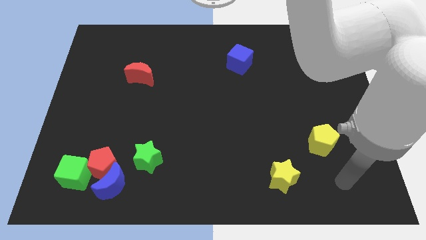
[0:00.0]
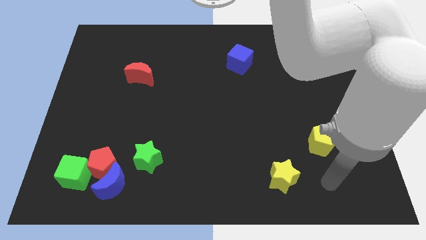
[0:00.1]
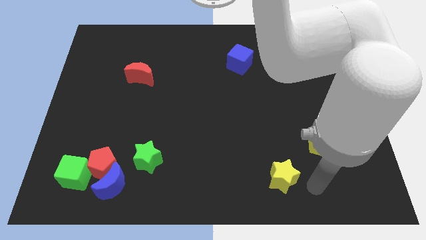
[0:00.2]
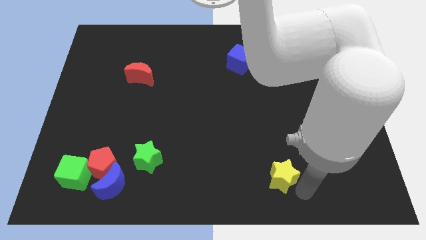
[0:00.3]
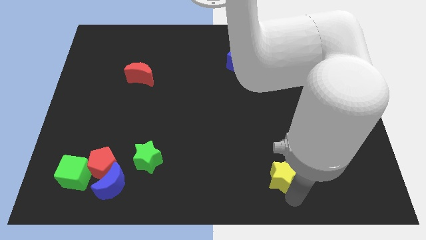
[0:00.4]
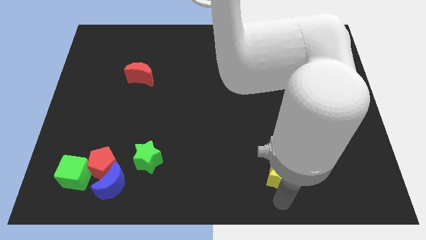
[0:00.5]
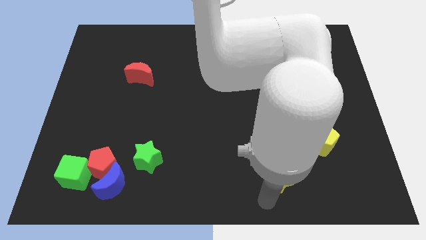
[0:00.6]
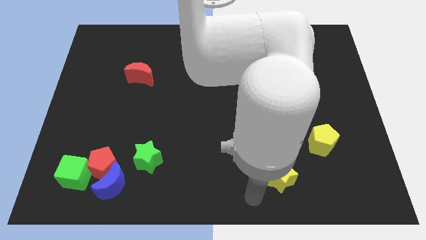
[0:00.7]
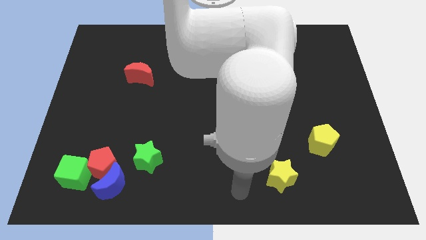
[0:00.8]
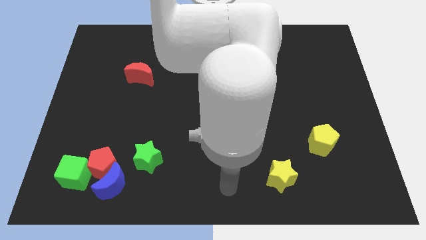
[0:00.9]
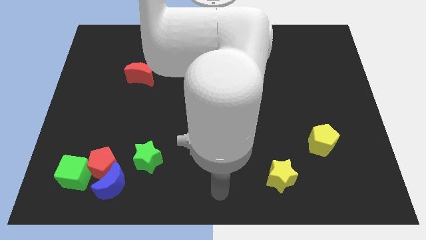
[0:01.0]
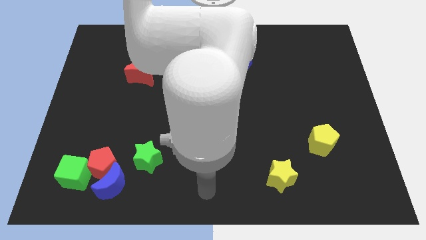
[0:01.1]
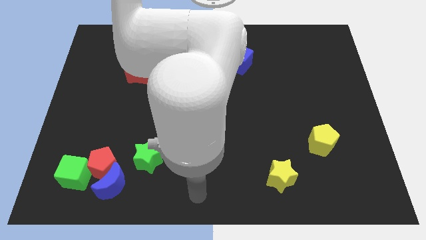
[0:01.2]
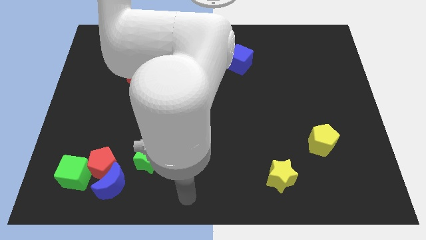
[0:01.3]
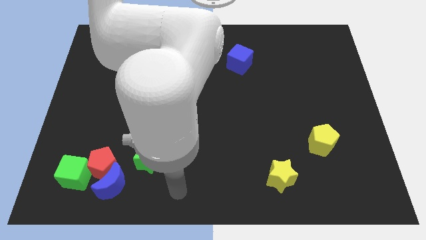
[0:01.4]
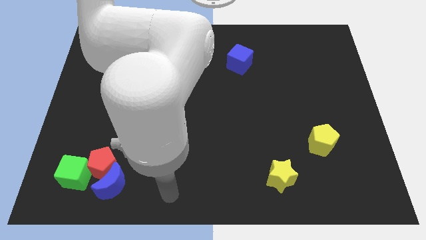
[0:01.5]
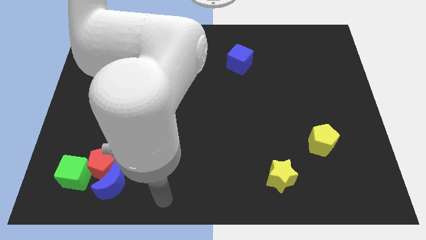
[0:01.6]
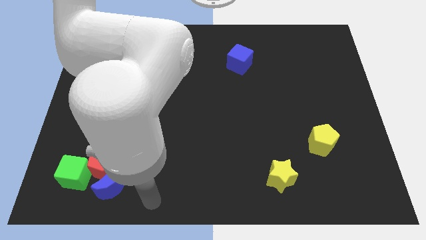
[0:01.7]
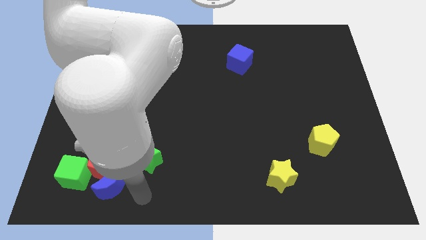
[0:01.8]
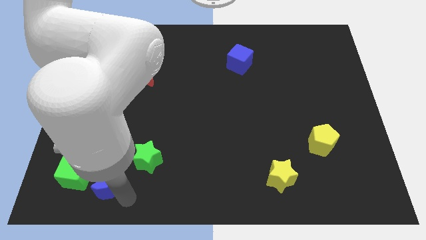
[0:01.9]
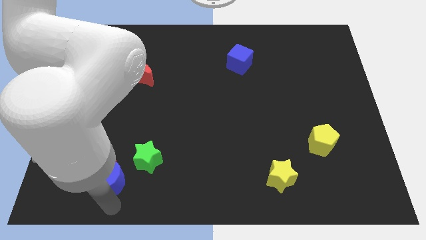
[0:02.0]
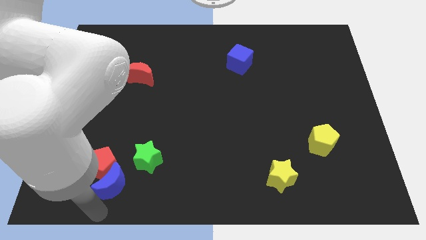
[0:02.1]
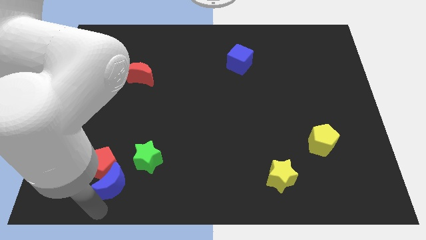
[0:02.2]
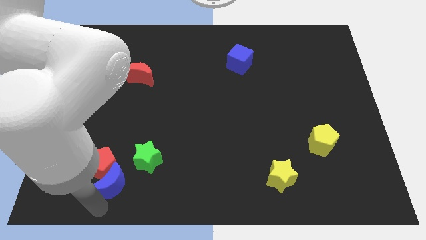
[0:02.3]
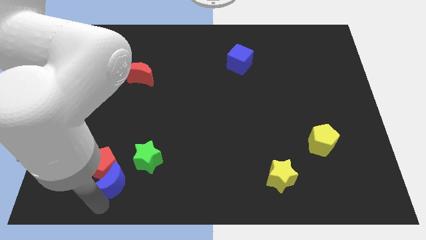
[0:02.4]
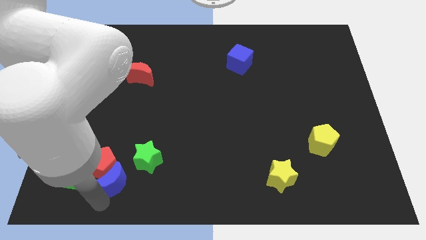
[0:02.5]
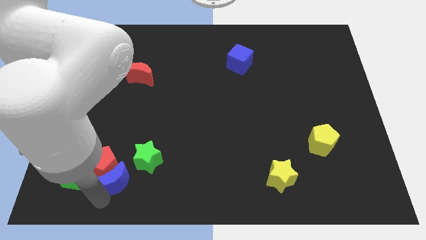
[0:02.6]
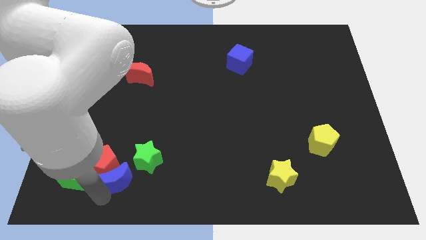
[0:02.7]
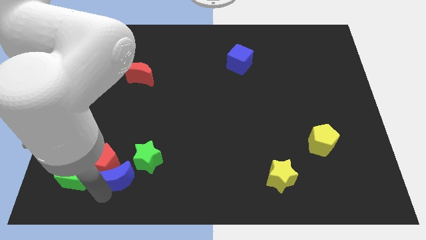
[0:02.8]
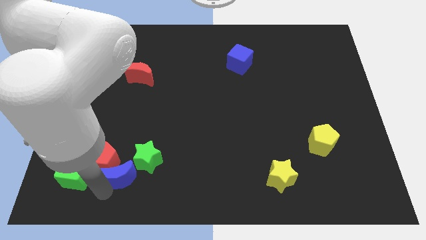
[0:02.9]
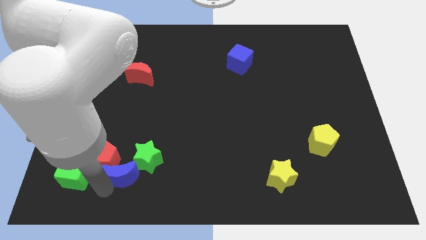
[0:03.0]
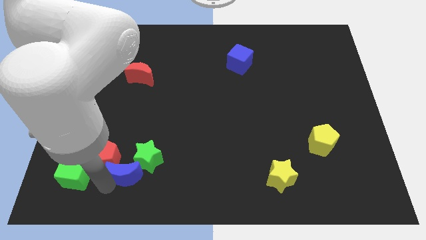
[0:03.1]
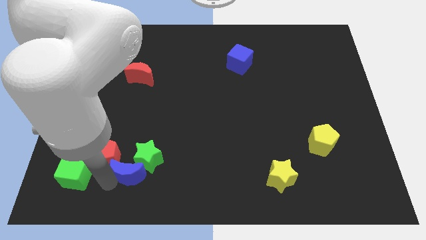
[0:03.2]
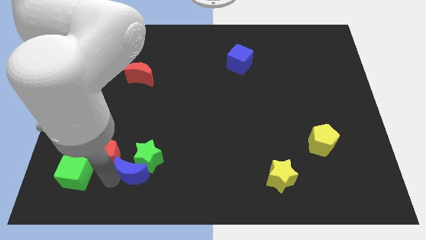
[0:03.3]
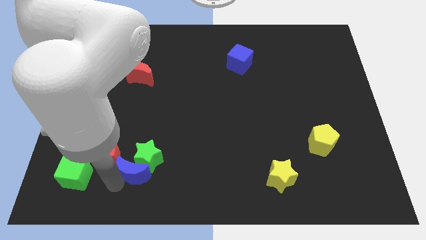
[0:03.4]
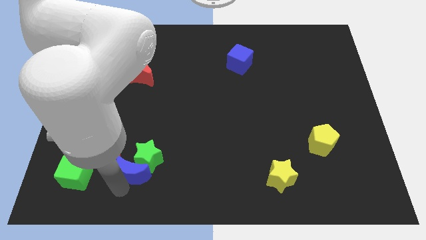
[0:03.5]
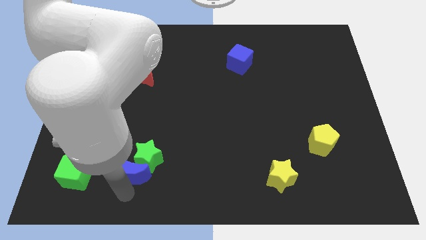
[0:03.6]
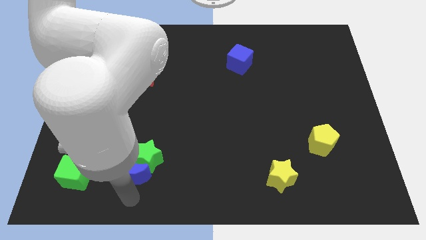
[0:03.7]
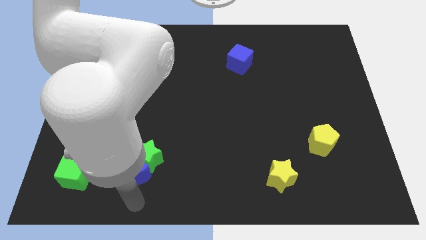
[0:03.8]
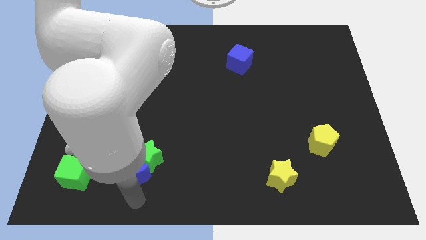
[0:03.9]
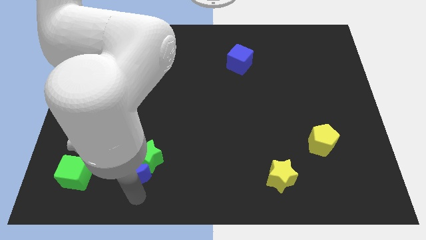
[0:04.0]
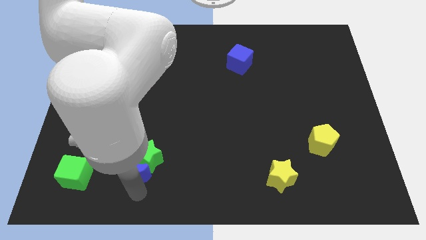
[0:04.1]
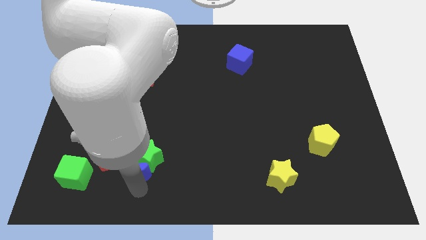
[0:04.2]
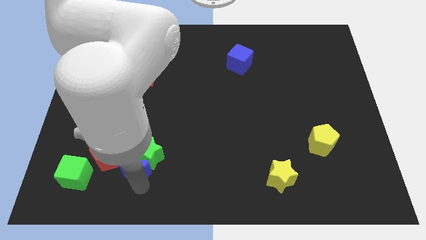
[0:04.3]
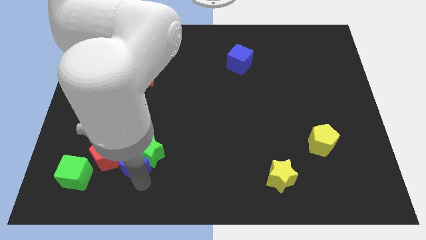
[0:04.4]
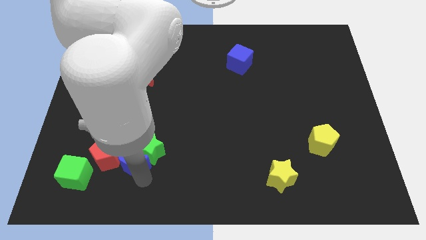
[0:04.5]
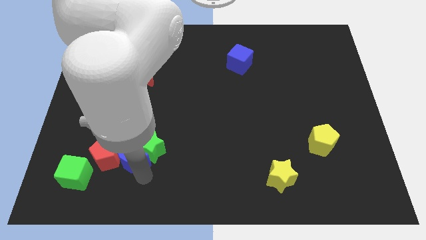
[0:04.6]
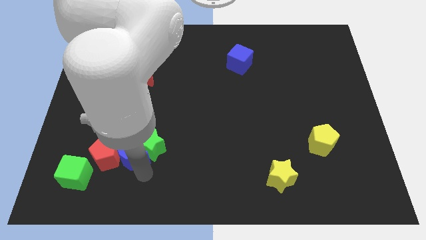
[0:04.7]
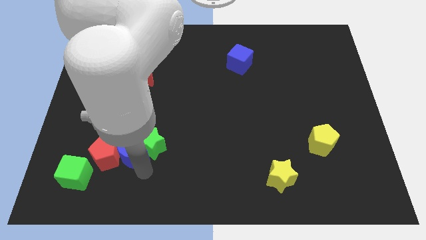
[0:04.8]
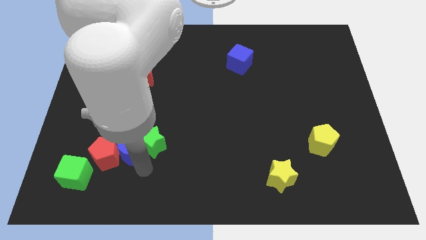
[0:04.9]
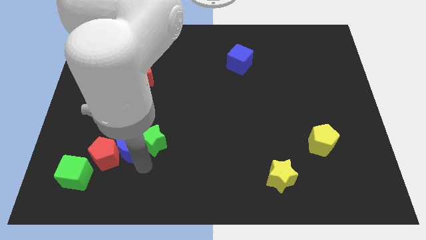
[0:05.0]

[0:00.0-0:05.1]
push the blue moon diagonally up and right a bit

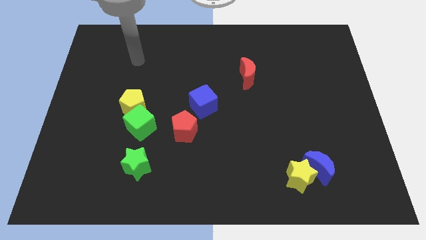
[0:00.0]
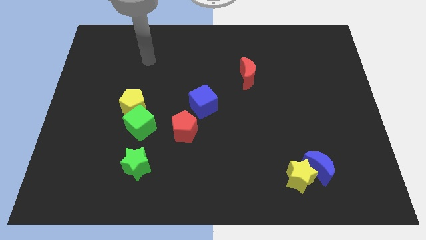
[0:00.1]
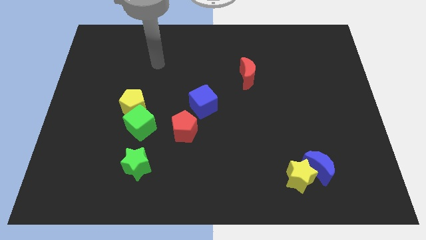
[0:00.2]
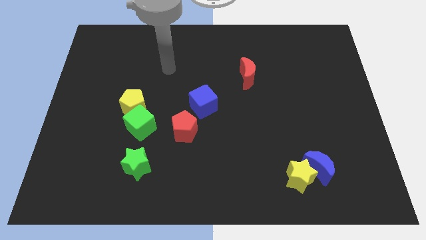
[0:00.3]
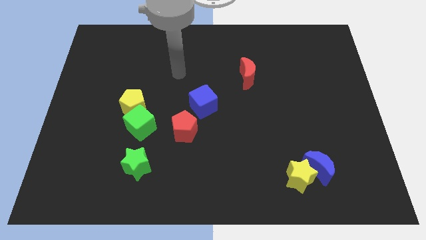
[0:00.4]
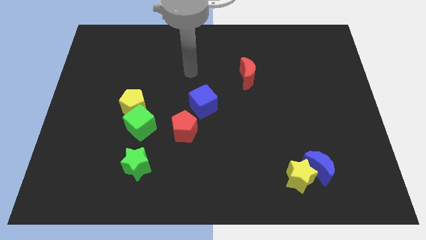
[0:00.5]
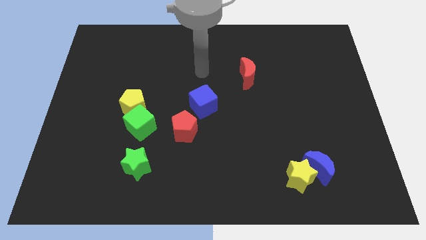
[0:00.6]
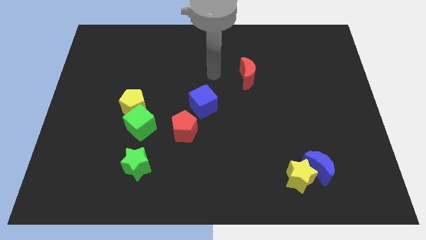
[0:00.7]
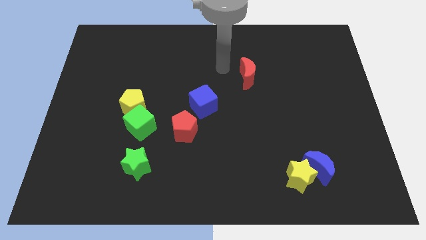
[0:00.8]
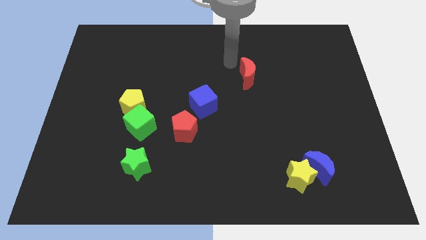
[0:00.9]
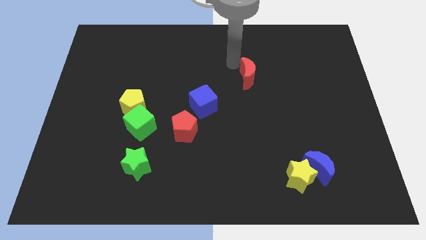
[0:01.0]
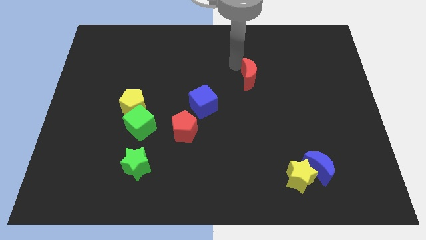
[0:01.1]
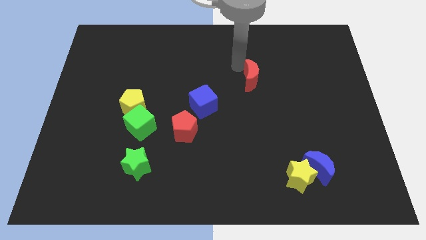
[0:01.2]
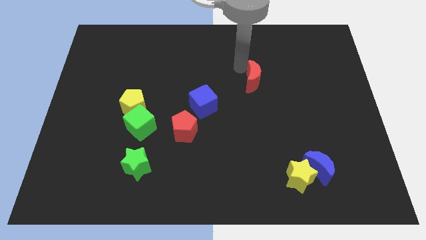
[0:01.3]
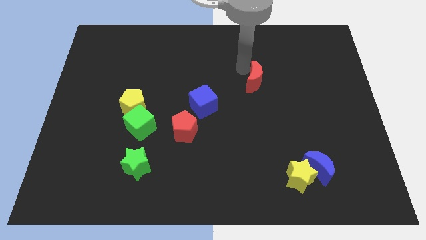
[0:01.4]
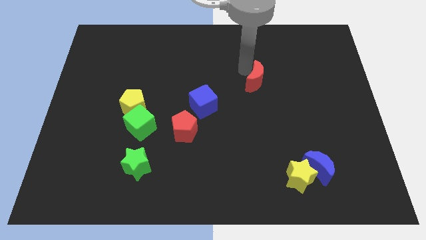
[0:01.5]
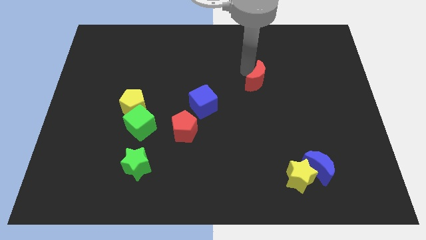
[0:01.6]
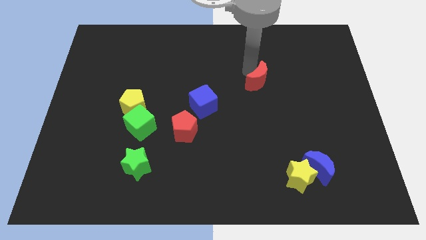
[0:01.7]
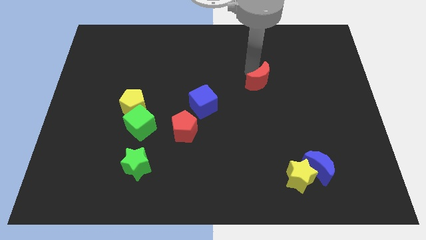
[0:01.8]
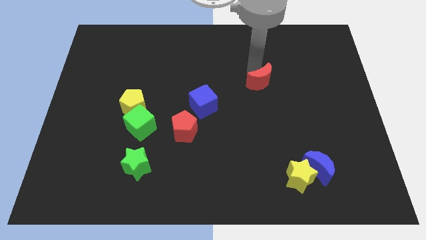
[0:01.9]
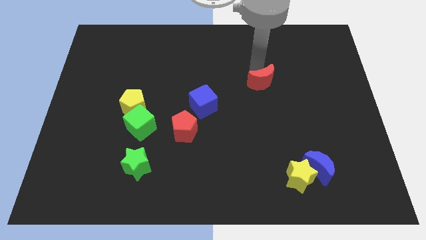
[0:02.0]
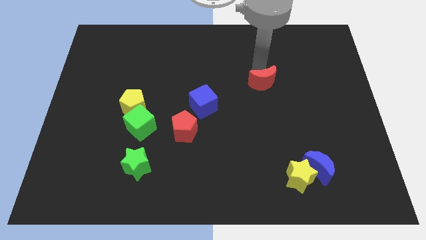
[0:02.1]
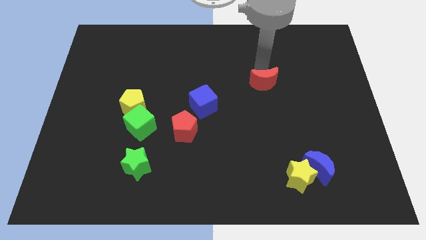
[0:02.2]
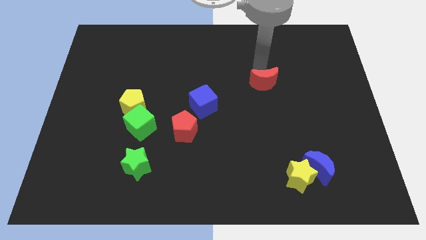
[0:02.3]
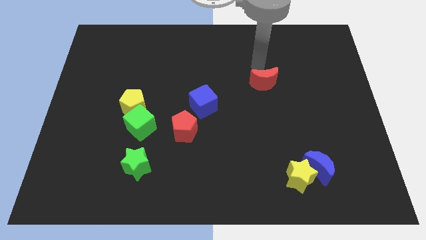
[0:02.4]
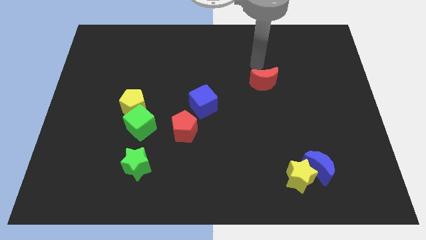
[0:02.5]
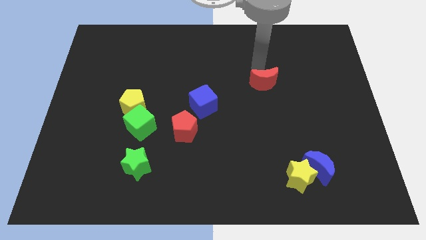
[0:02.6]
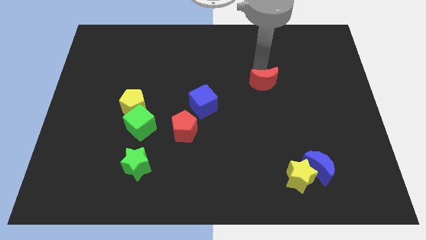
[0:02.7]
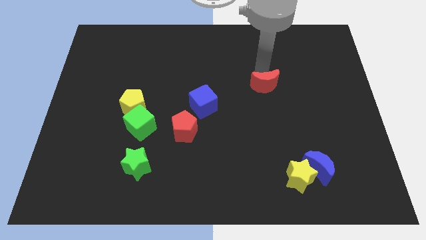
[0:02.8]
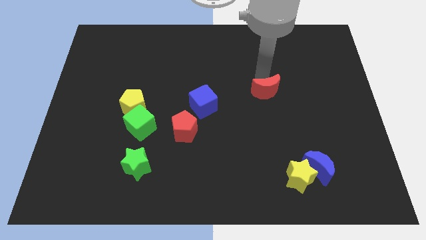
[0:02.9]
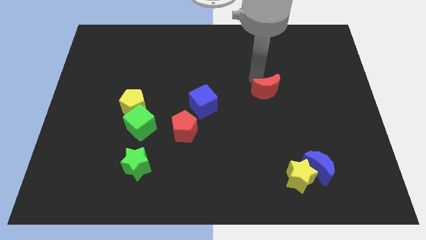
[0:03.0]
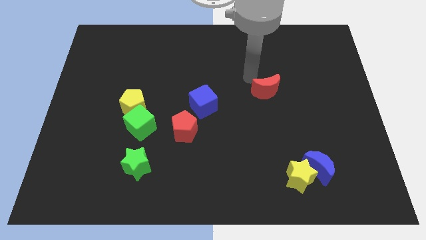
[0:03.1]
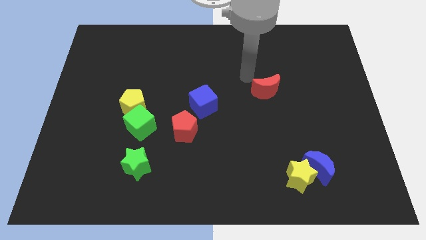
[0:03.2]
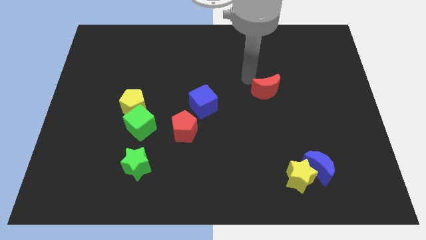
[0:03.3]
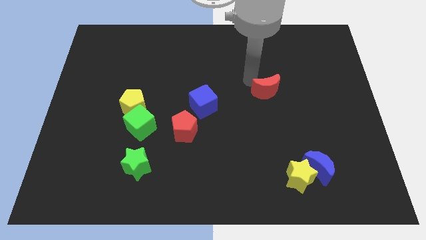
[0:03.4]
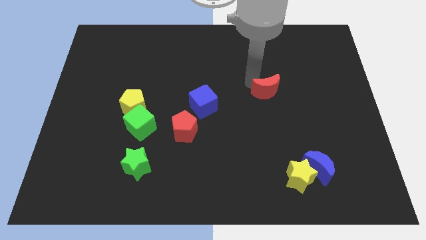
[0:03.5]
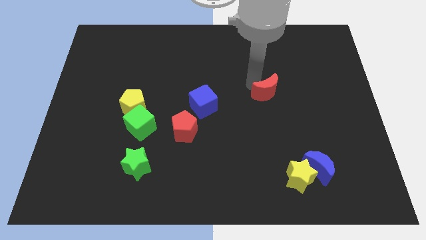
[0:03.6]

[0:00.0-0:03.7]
slide the red moon somewhat downwards and to the right
